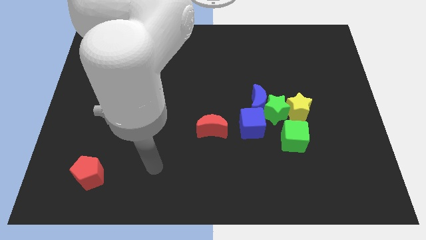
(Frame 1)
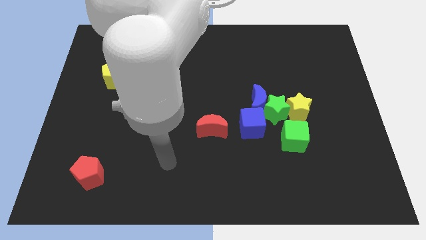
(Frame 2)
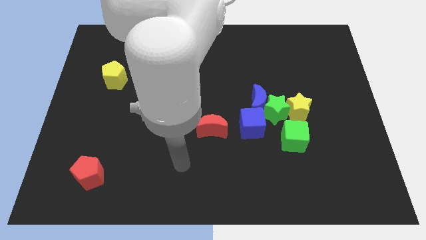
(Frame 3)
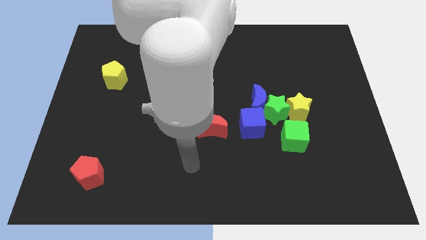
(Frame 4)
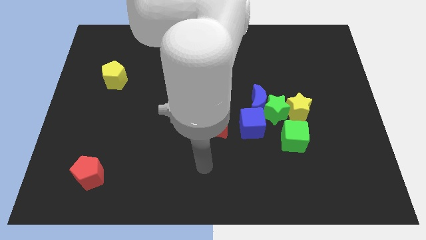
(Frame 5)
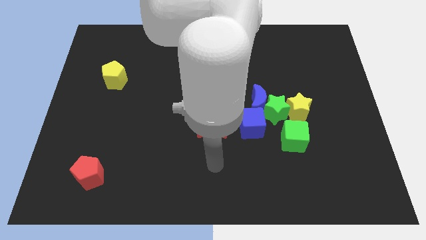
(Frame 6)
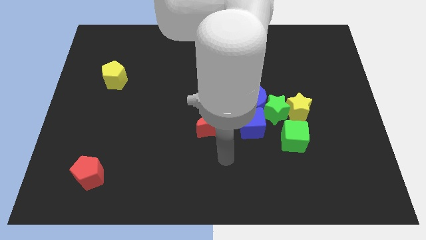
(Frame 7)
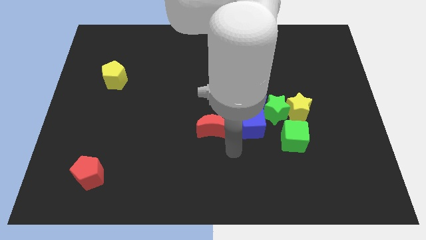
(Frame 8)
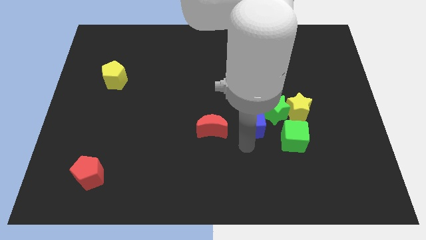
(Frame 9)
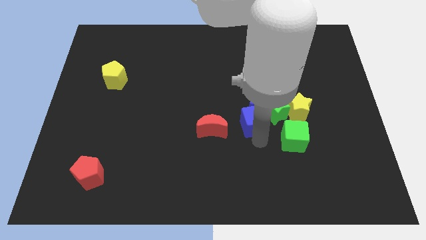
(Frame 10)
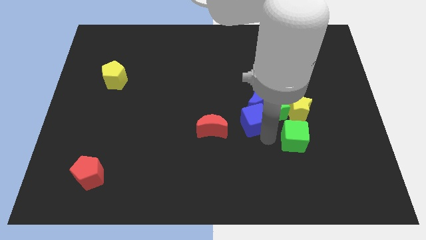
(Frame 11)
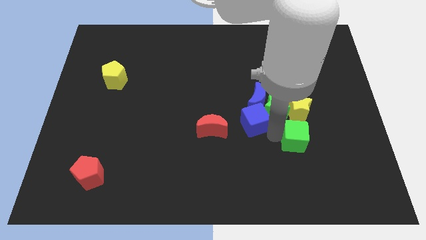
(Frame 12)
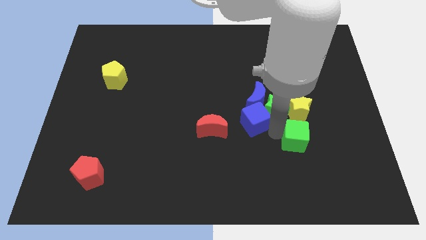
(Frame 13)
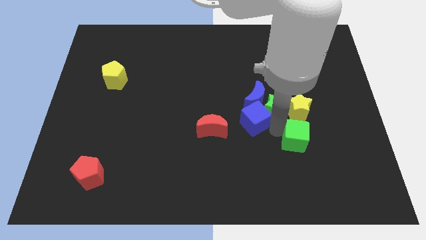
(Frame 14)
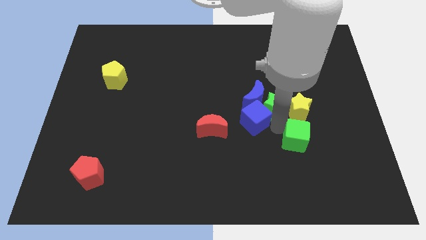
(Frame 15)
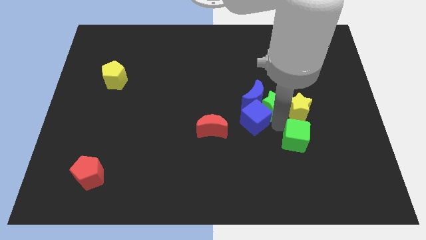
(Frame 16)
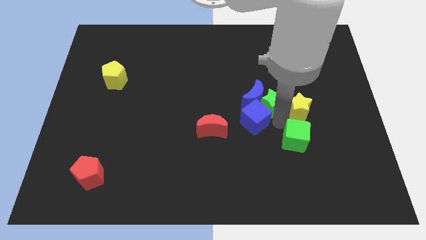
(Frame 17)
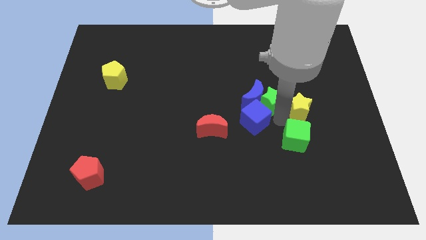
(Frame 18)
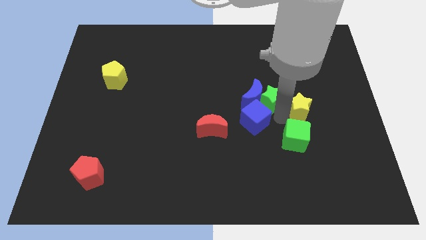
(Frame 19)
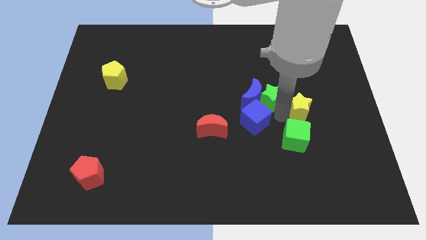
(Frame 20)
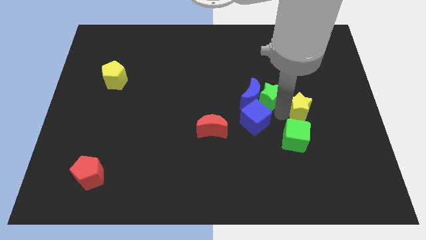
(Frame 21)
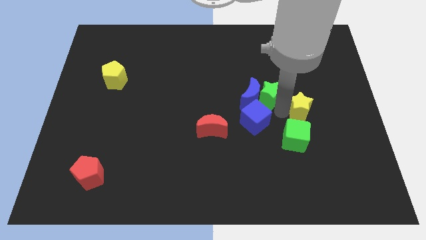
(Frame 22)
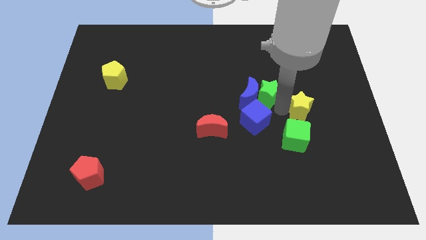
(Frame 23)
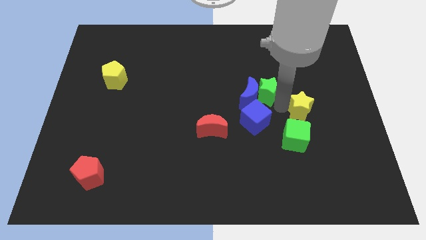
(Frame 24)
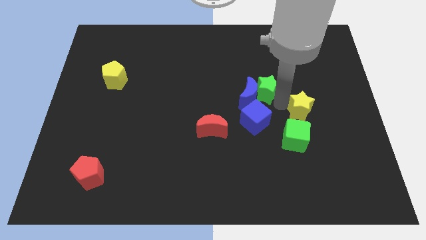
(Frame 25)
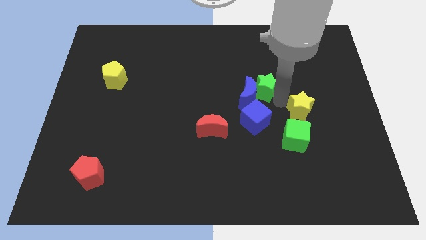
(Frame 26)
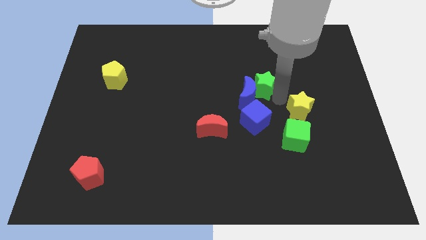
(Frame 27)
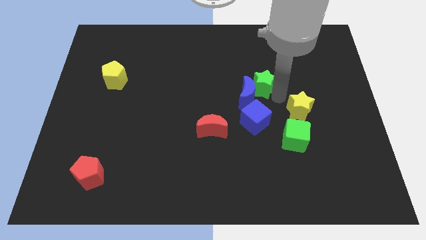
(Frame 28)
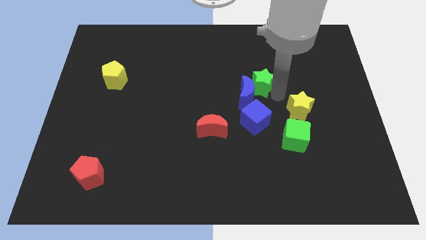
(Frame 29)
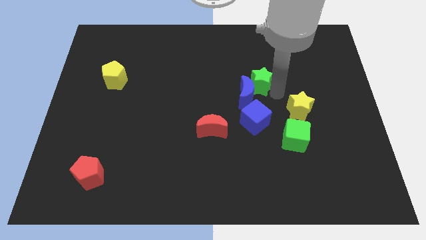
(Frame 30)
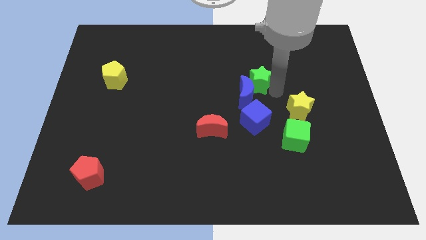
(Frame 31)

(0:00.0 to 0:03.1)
separate the green star from the group

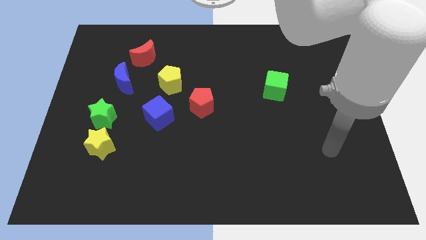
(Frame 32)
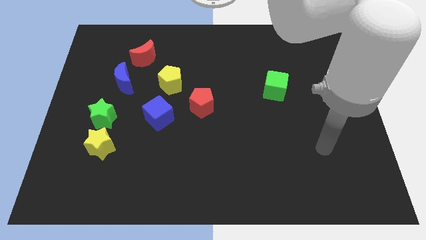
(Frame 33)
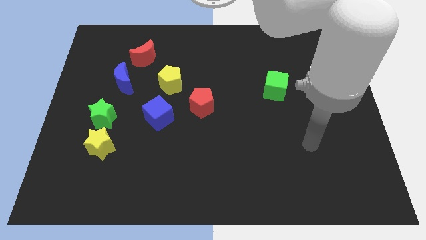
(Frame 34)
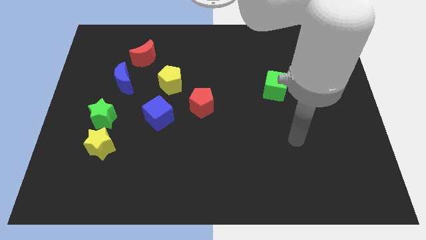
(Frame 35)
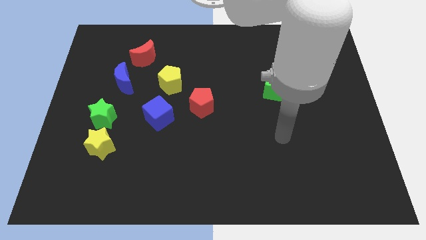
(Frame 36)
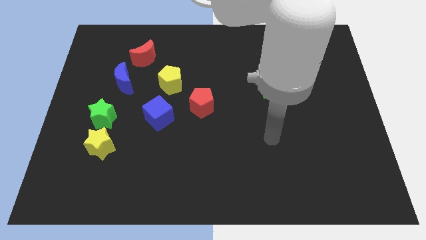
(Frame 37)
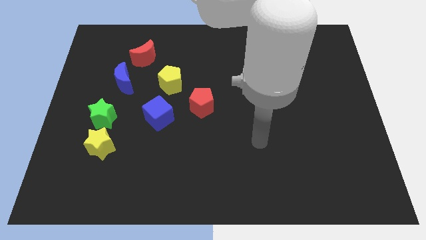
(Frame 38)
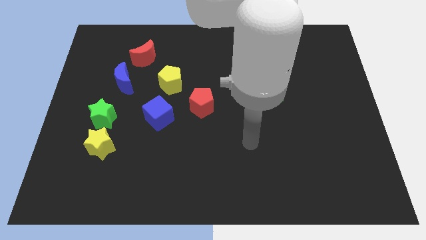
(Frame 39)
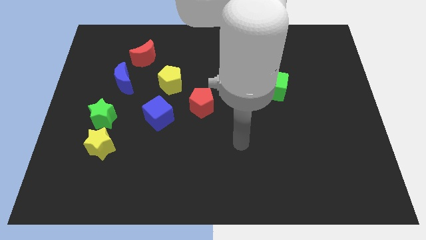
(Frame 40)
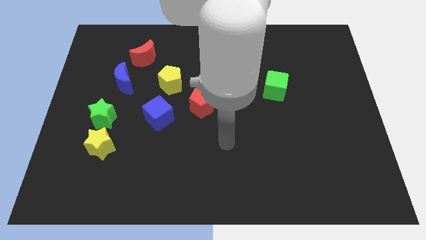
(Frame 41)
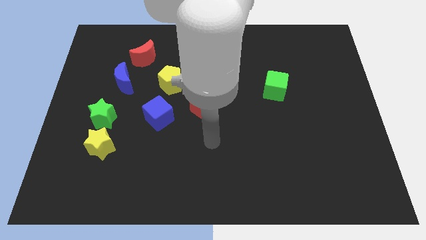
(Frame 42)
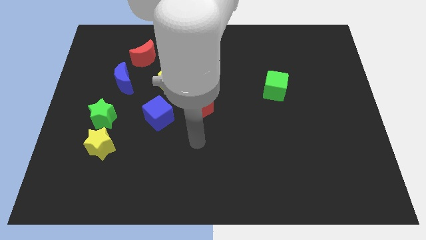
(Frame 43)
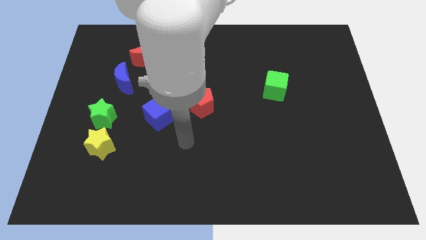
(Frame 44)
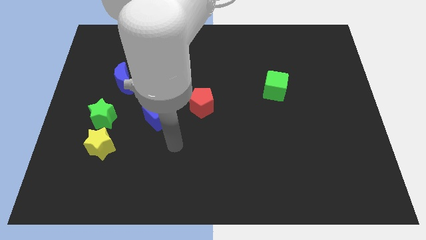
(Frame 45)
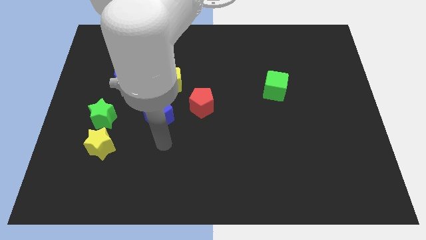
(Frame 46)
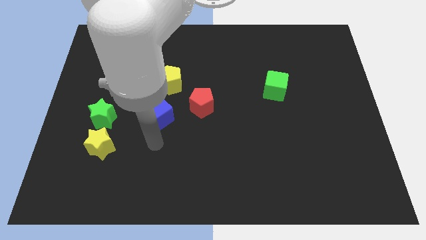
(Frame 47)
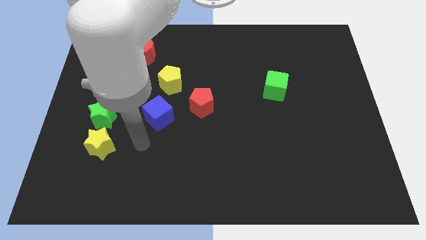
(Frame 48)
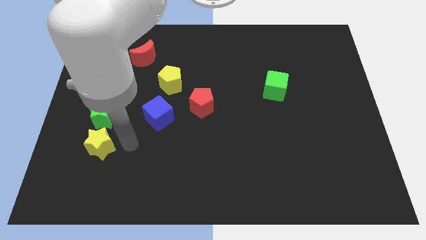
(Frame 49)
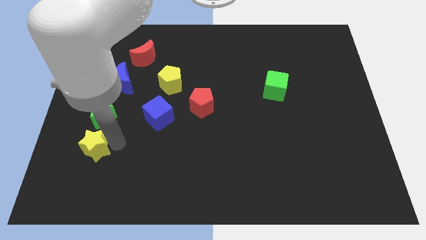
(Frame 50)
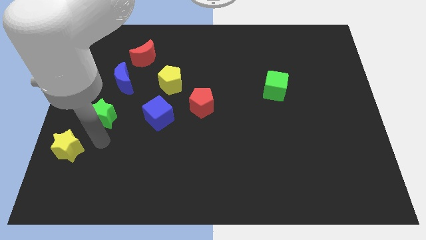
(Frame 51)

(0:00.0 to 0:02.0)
separate the green star from the yellow star

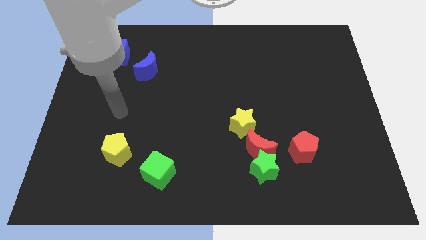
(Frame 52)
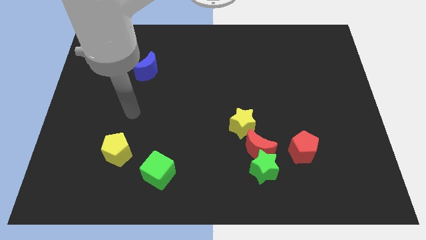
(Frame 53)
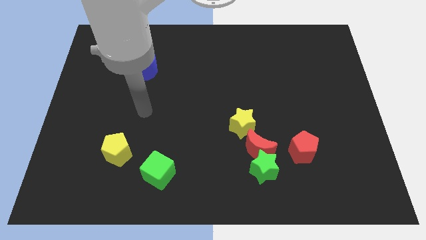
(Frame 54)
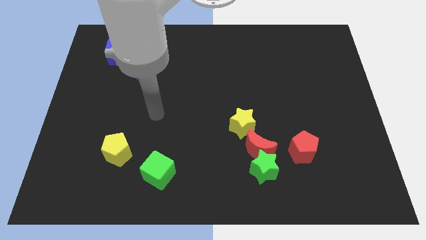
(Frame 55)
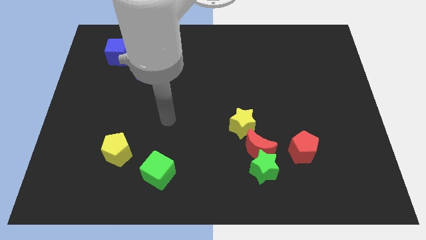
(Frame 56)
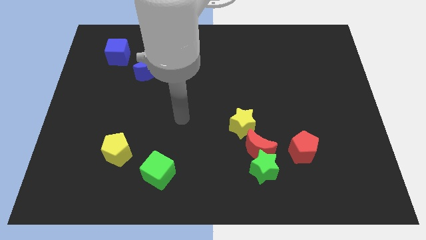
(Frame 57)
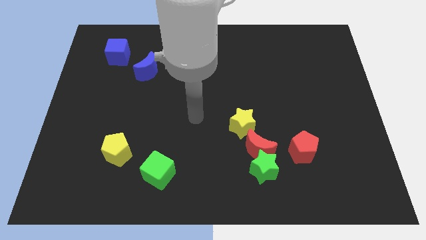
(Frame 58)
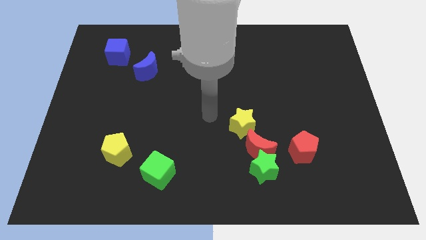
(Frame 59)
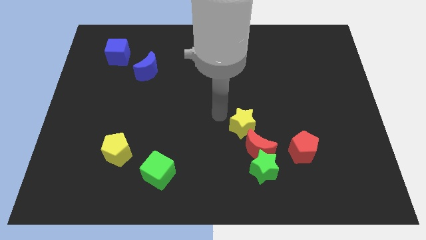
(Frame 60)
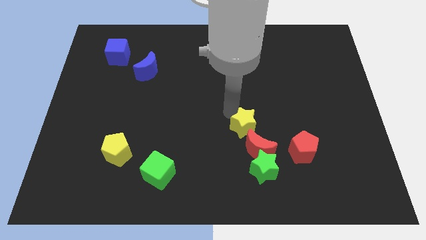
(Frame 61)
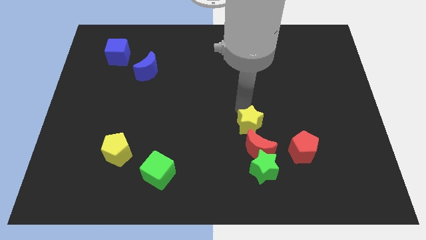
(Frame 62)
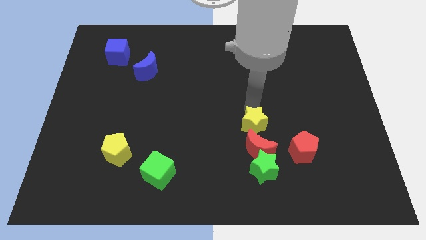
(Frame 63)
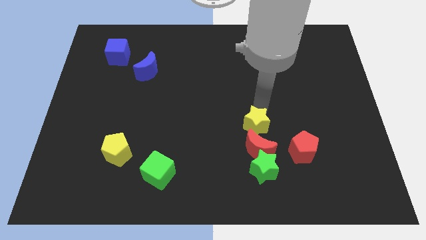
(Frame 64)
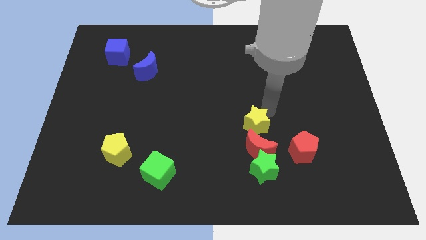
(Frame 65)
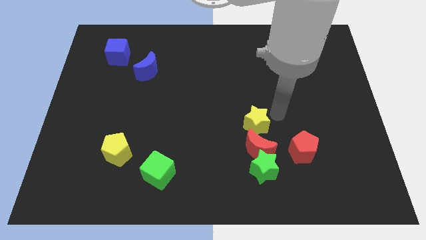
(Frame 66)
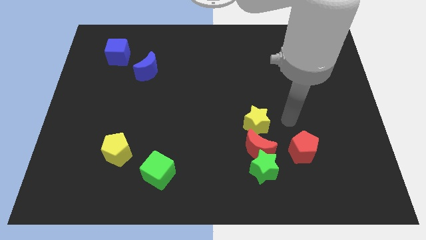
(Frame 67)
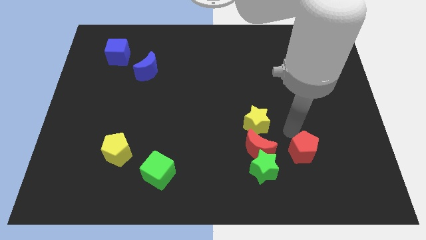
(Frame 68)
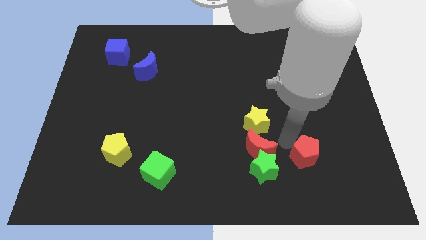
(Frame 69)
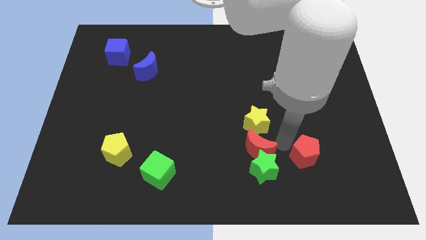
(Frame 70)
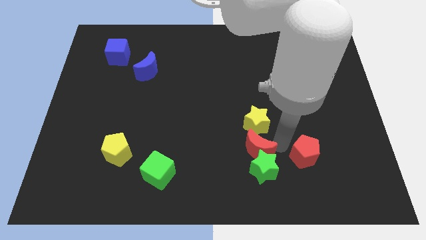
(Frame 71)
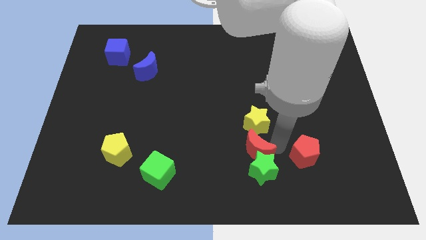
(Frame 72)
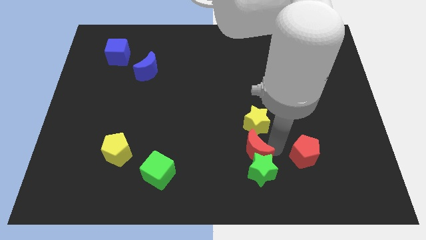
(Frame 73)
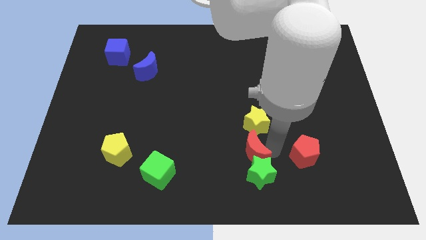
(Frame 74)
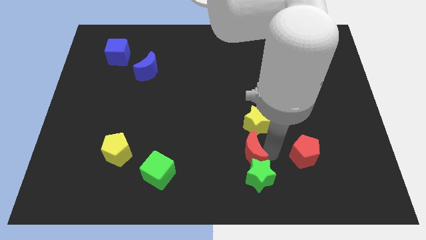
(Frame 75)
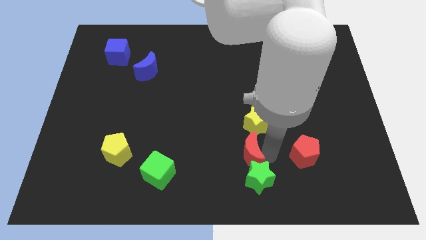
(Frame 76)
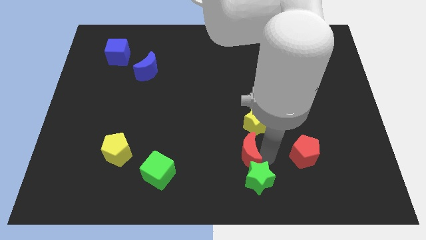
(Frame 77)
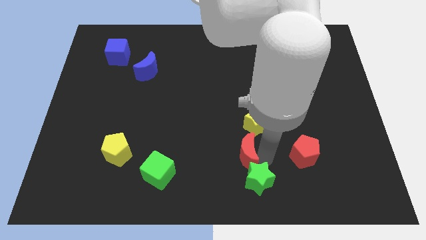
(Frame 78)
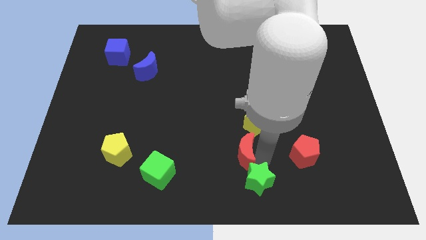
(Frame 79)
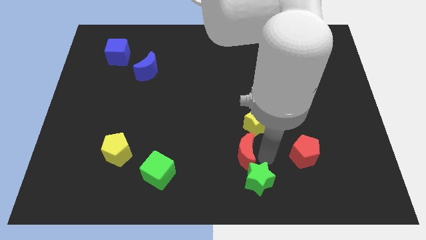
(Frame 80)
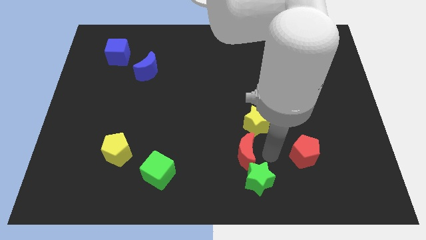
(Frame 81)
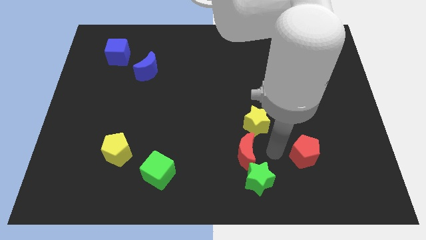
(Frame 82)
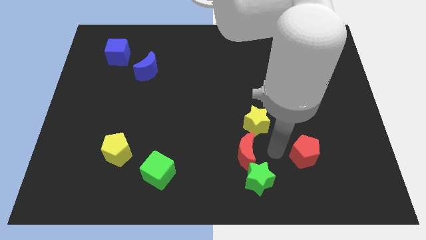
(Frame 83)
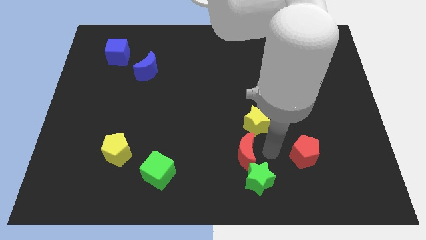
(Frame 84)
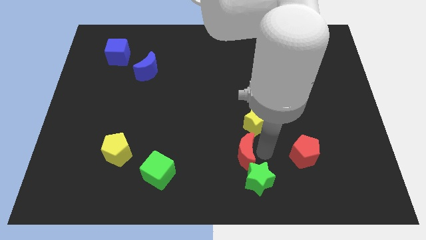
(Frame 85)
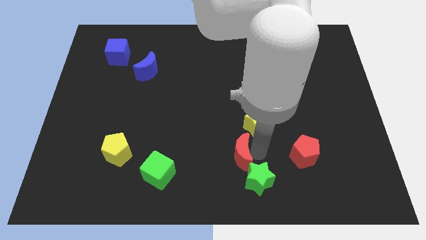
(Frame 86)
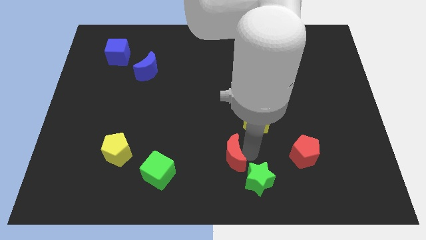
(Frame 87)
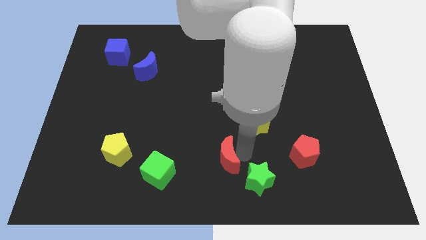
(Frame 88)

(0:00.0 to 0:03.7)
pull the red moon apart from the clump

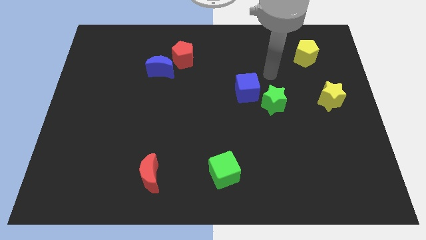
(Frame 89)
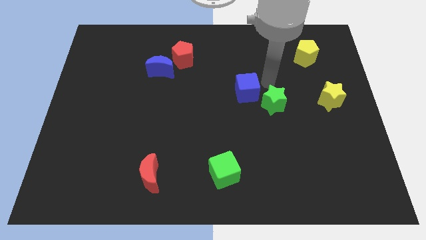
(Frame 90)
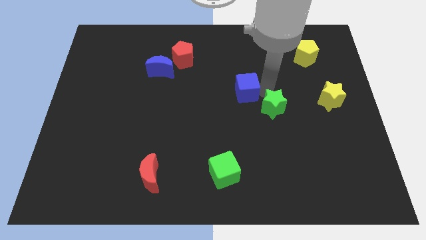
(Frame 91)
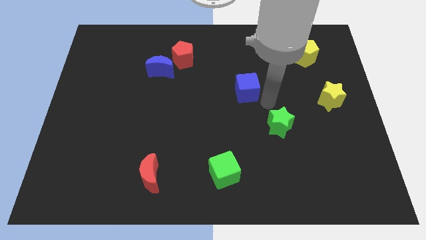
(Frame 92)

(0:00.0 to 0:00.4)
move the blue cube away from the green star

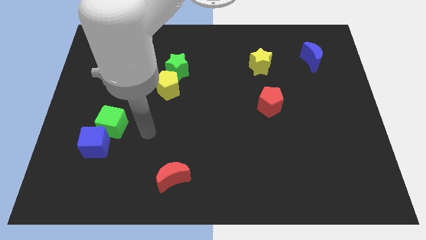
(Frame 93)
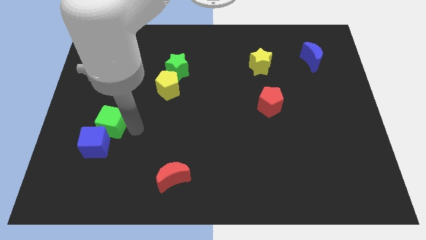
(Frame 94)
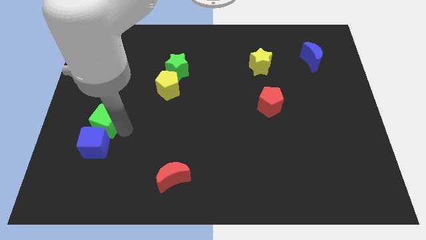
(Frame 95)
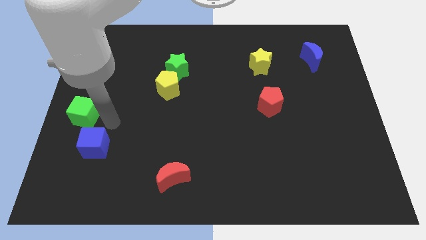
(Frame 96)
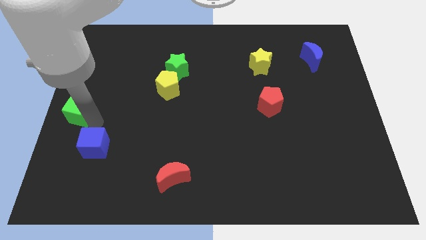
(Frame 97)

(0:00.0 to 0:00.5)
separate the blue cube from the green cube
